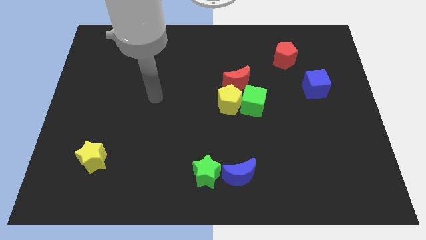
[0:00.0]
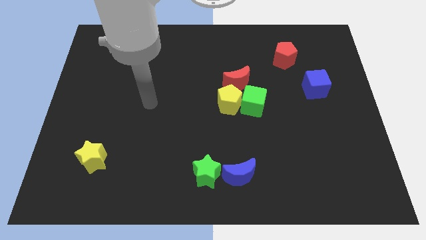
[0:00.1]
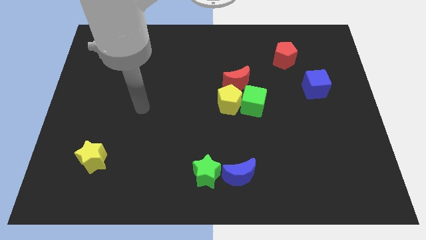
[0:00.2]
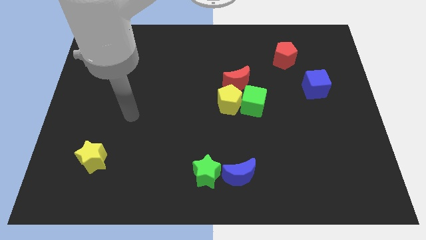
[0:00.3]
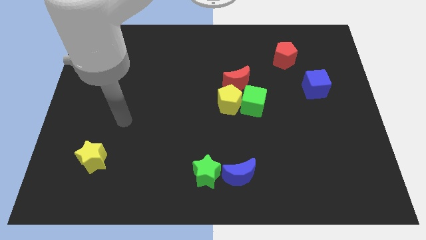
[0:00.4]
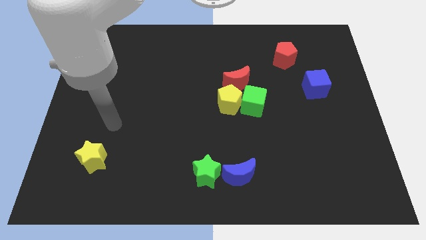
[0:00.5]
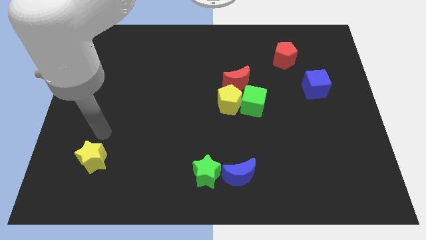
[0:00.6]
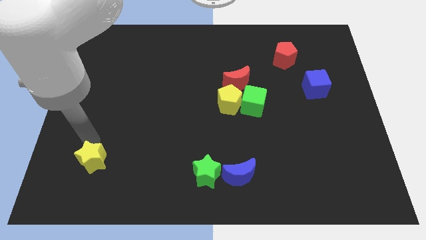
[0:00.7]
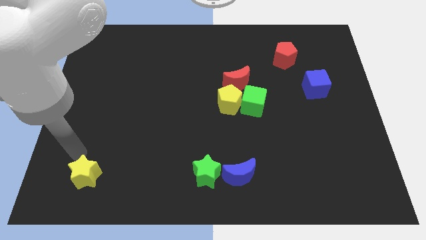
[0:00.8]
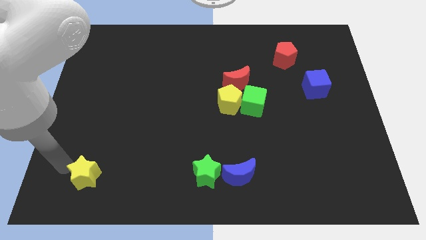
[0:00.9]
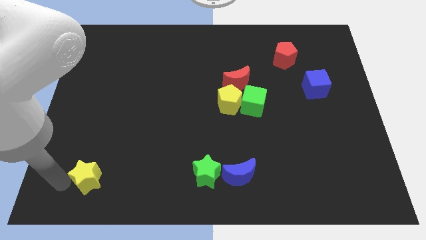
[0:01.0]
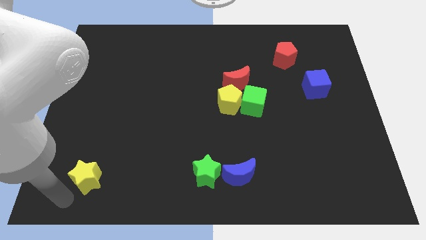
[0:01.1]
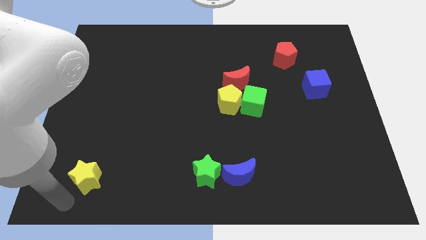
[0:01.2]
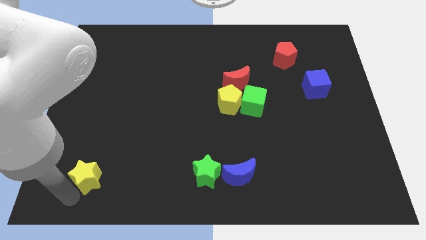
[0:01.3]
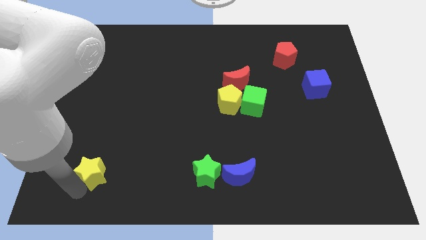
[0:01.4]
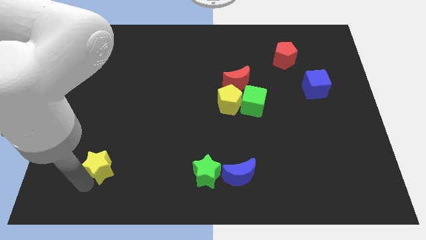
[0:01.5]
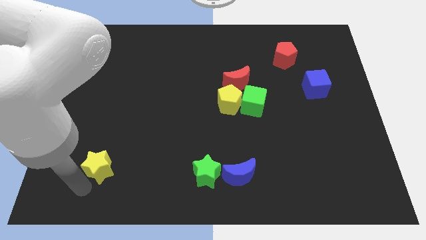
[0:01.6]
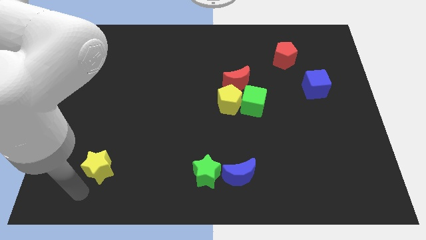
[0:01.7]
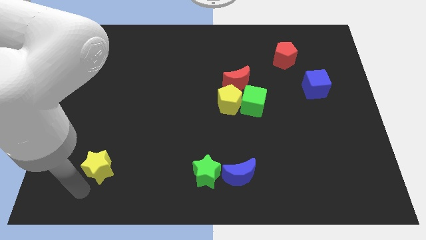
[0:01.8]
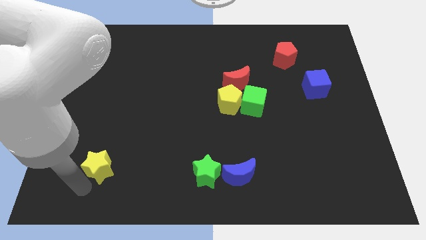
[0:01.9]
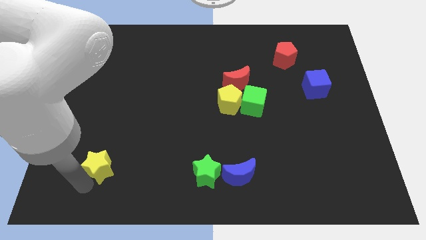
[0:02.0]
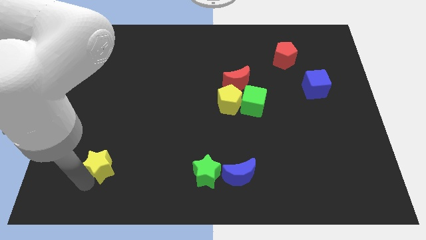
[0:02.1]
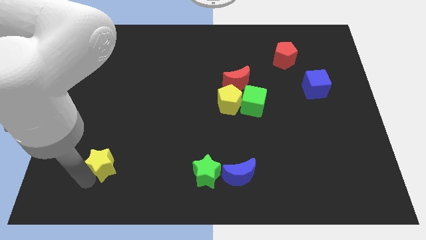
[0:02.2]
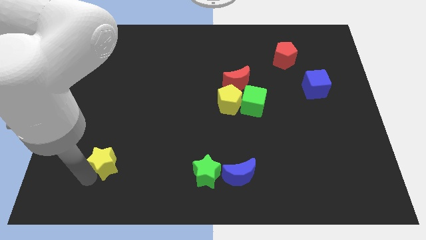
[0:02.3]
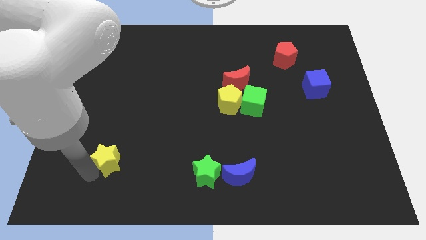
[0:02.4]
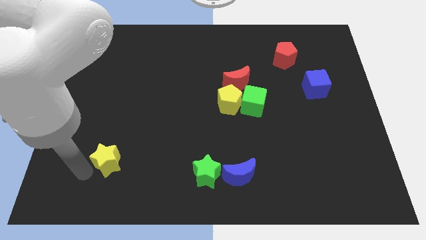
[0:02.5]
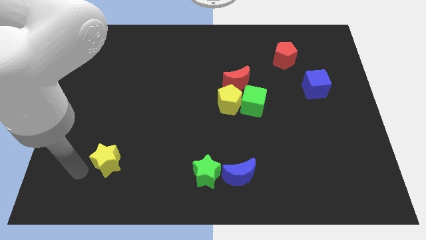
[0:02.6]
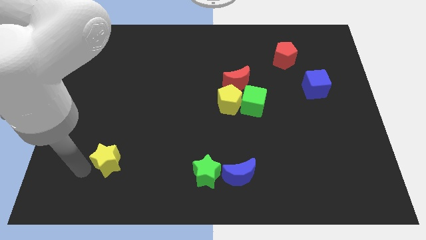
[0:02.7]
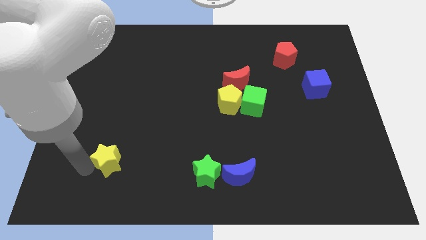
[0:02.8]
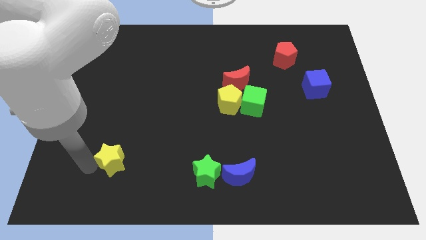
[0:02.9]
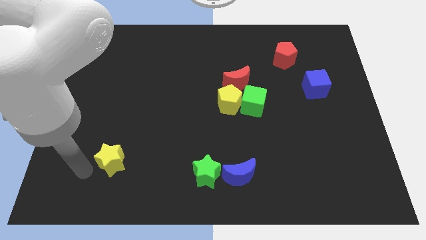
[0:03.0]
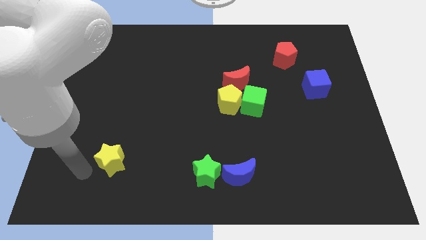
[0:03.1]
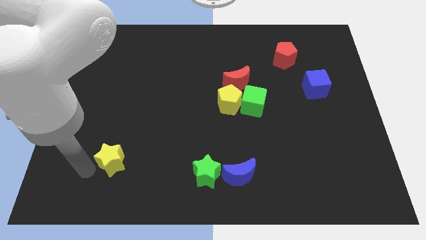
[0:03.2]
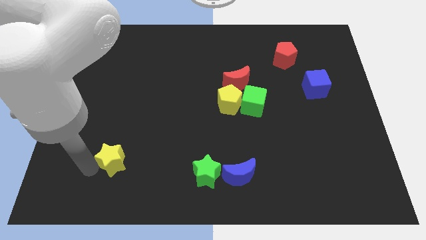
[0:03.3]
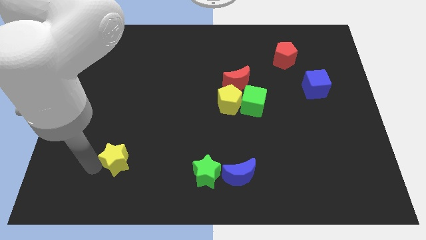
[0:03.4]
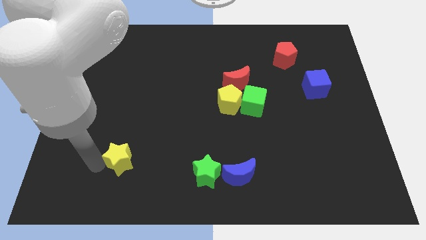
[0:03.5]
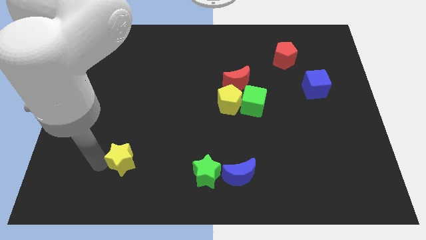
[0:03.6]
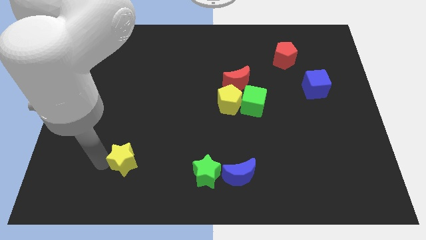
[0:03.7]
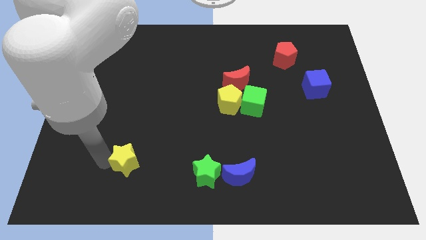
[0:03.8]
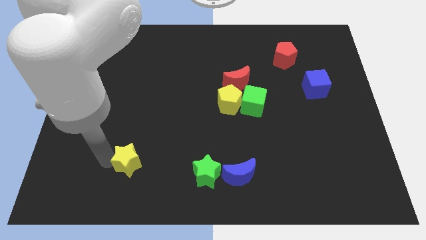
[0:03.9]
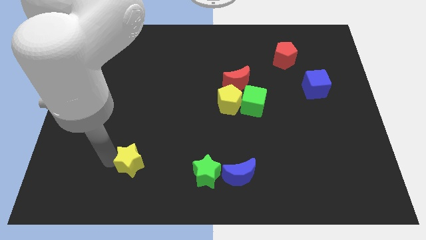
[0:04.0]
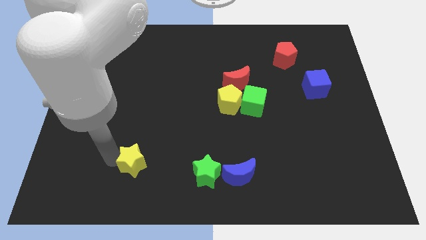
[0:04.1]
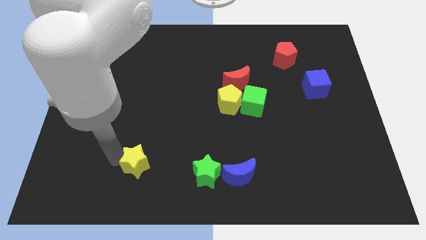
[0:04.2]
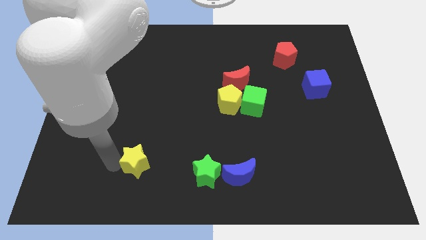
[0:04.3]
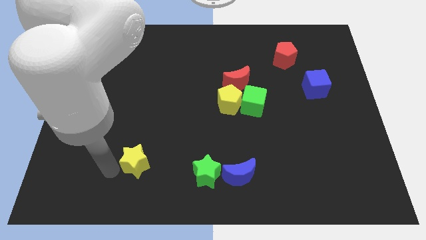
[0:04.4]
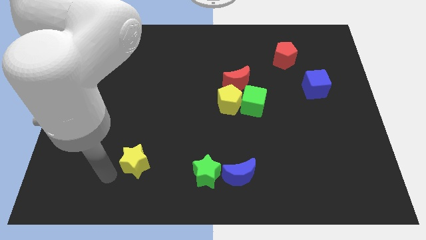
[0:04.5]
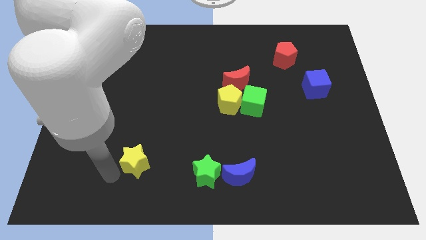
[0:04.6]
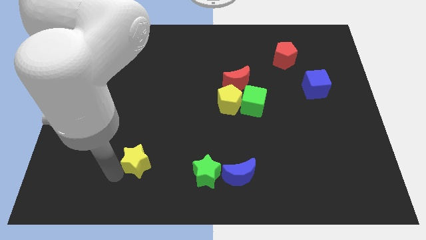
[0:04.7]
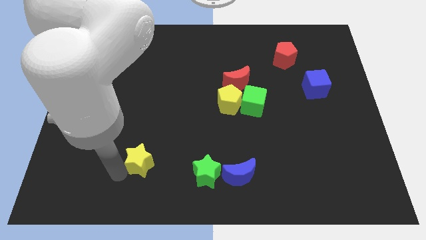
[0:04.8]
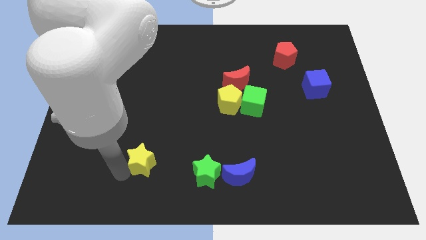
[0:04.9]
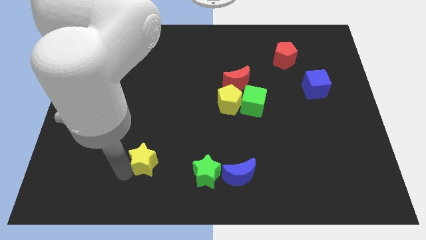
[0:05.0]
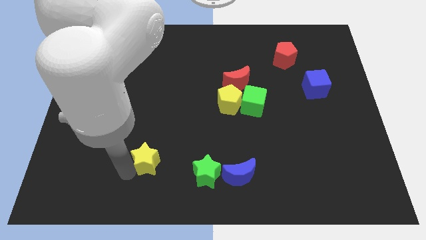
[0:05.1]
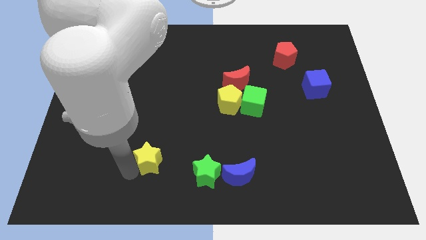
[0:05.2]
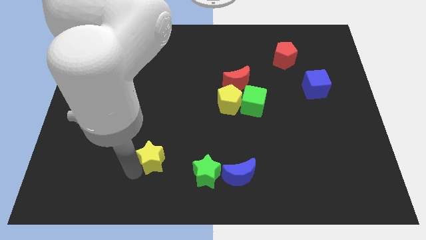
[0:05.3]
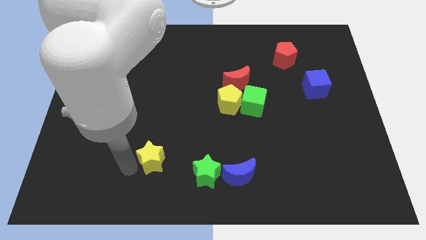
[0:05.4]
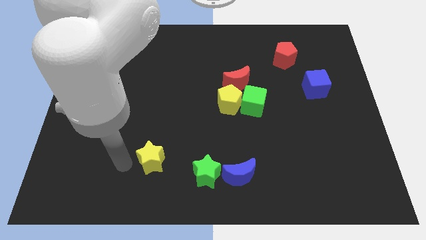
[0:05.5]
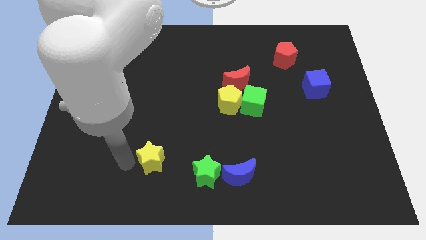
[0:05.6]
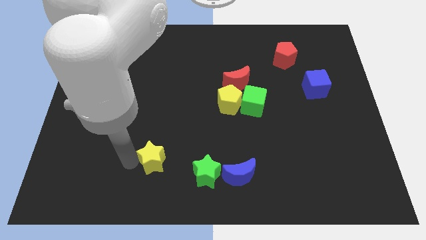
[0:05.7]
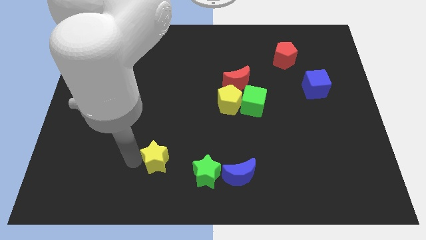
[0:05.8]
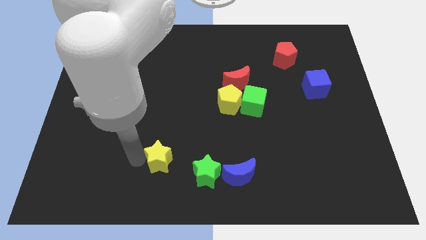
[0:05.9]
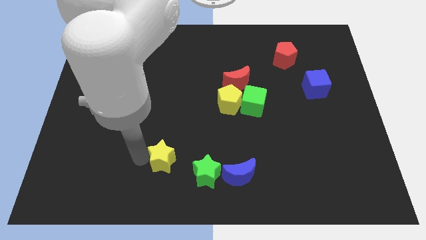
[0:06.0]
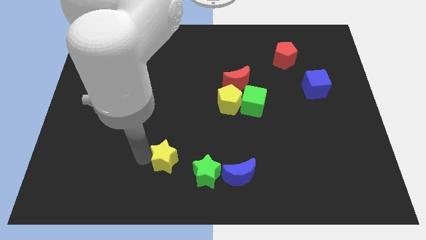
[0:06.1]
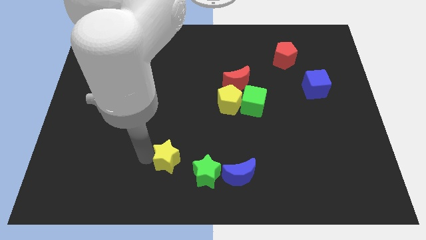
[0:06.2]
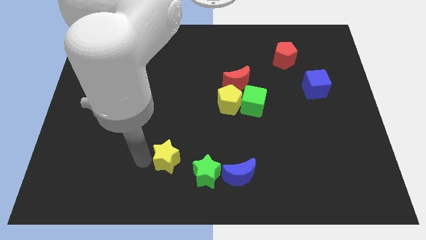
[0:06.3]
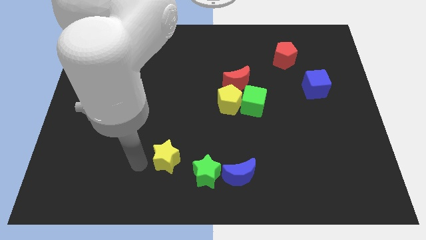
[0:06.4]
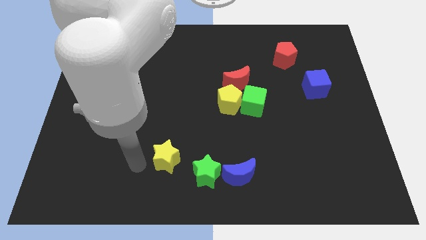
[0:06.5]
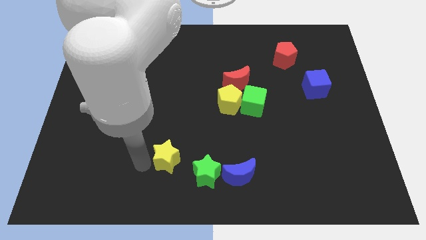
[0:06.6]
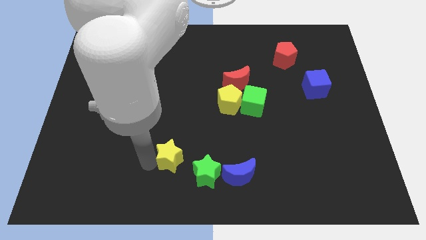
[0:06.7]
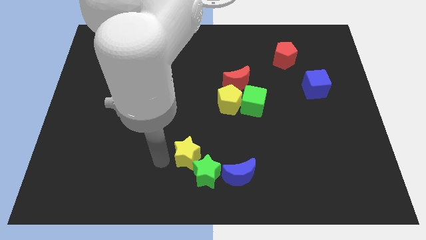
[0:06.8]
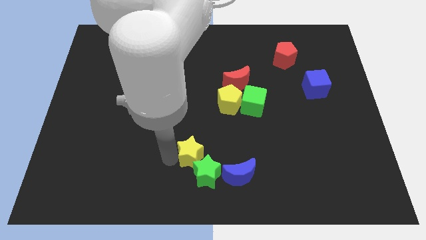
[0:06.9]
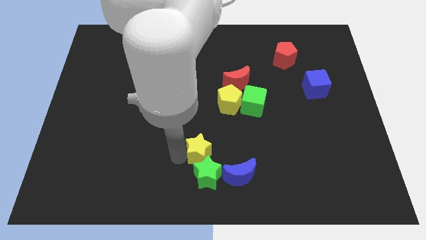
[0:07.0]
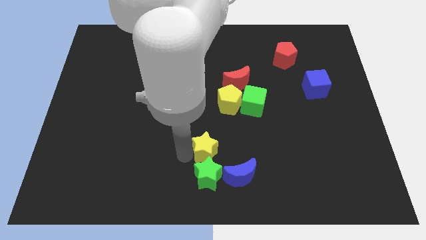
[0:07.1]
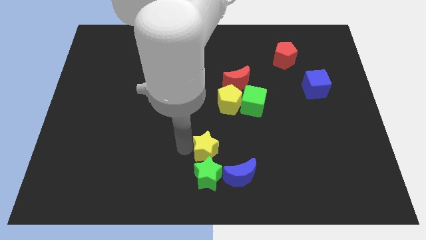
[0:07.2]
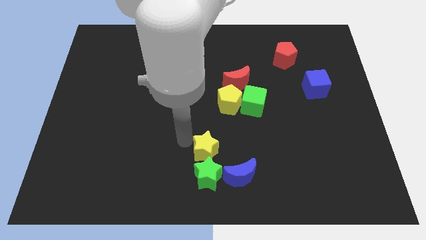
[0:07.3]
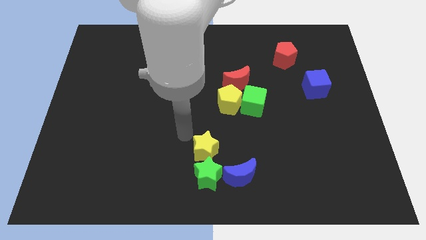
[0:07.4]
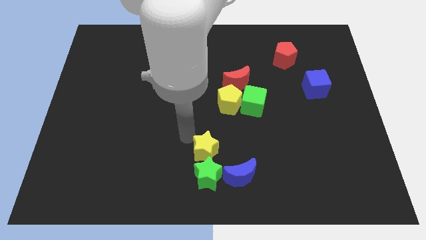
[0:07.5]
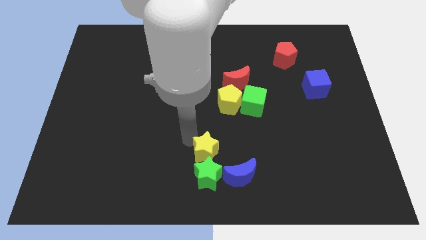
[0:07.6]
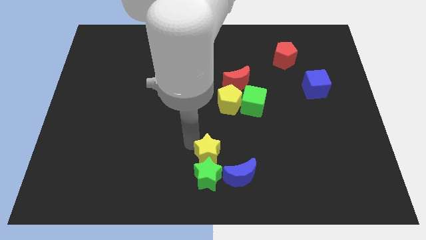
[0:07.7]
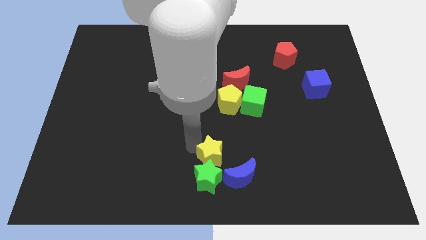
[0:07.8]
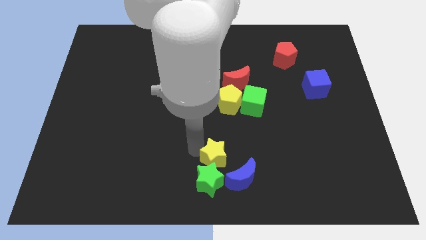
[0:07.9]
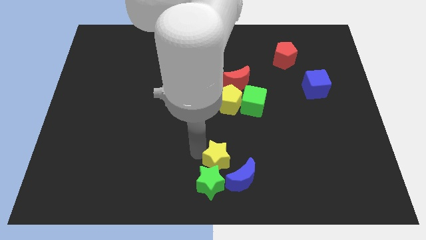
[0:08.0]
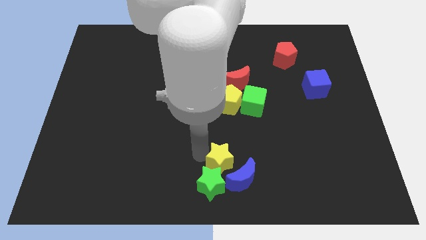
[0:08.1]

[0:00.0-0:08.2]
move the yellow star next to the blue moon
